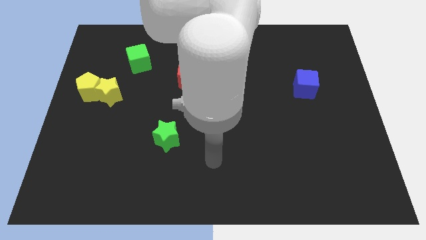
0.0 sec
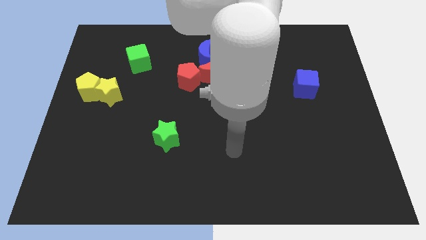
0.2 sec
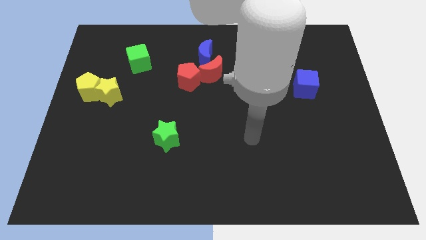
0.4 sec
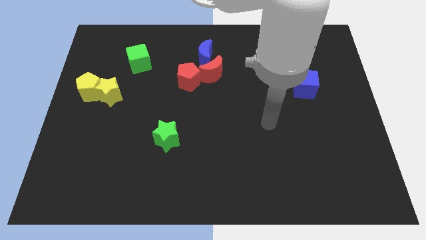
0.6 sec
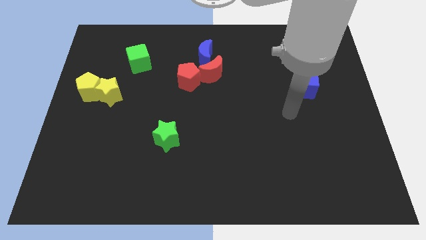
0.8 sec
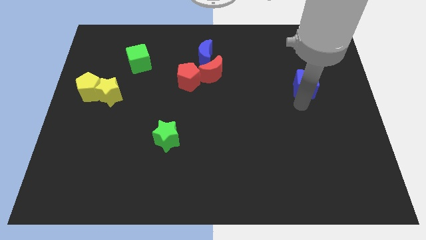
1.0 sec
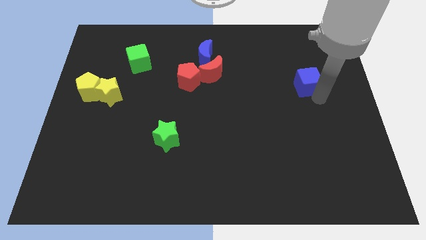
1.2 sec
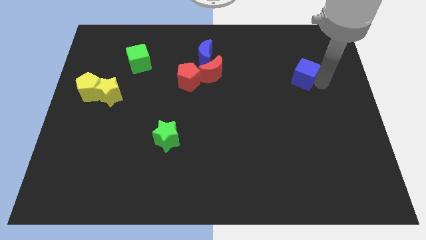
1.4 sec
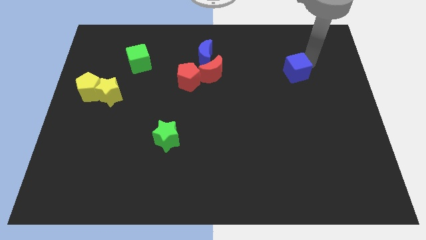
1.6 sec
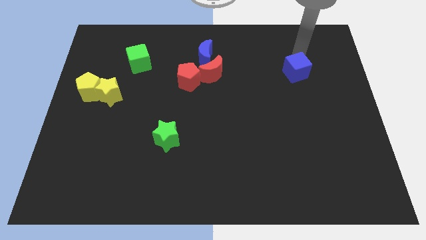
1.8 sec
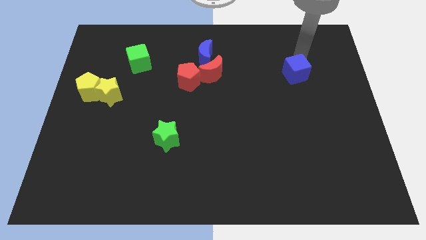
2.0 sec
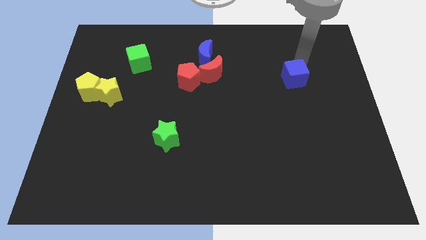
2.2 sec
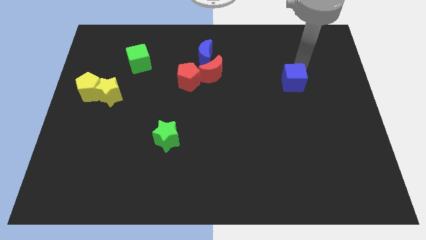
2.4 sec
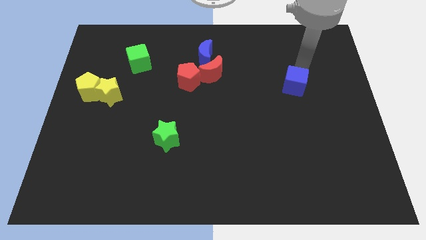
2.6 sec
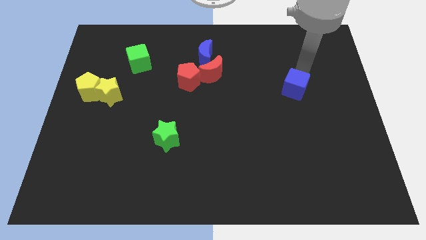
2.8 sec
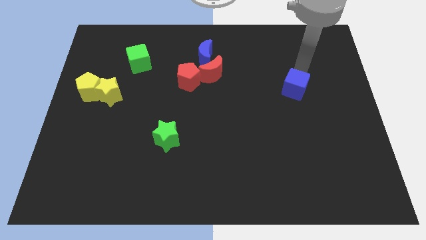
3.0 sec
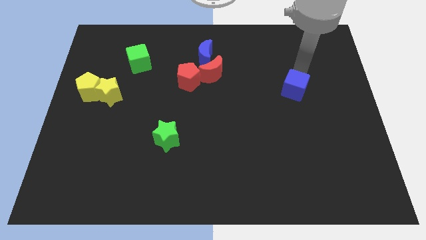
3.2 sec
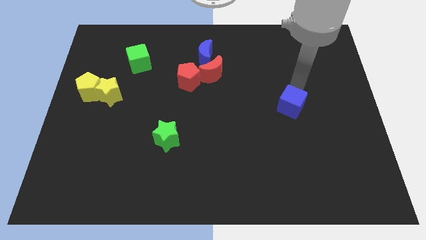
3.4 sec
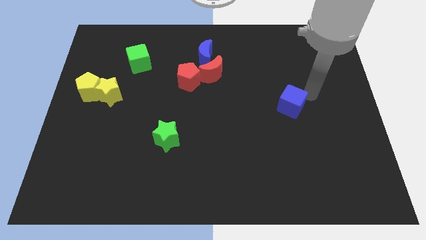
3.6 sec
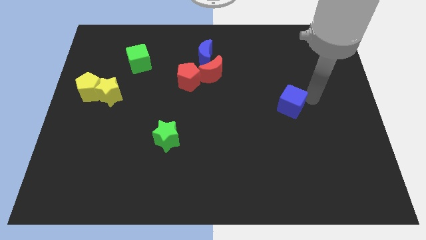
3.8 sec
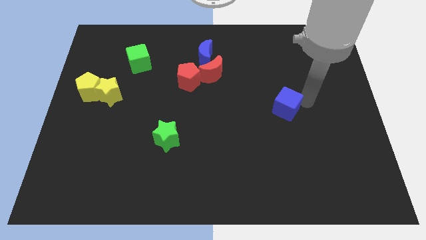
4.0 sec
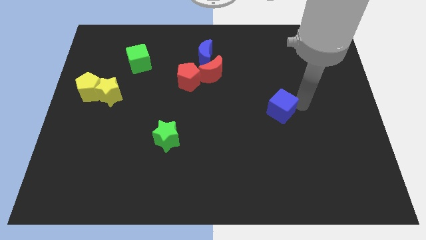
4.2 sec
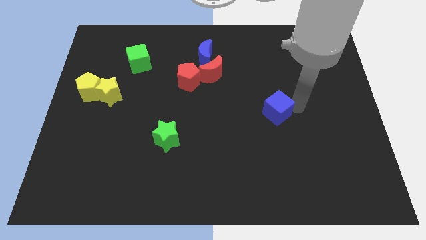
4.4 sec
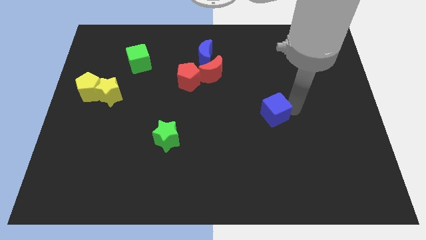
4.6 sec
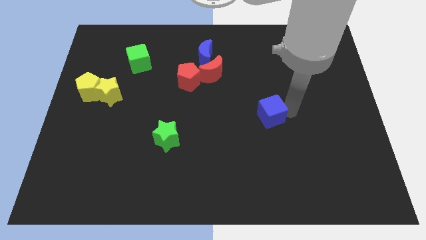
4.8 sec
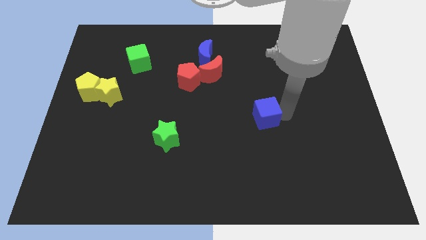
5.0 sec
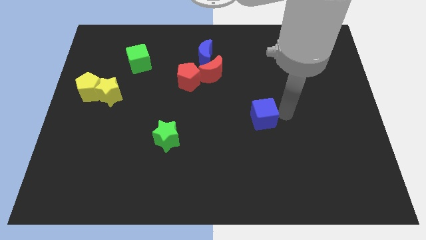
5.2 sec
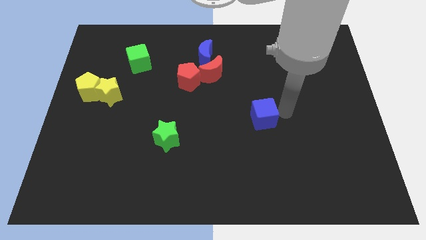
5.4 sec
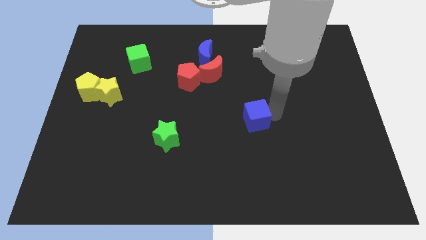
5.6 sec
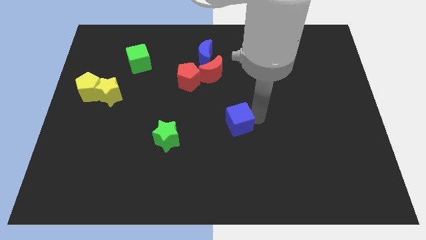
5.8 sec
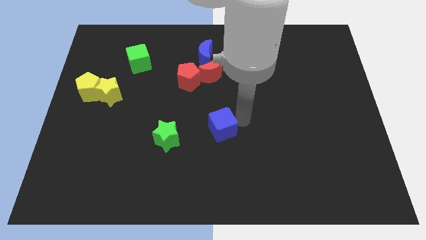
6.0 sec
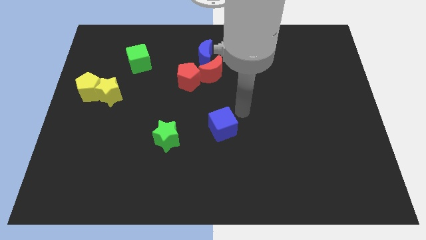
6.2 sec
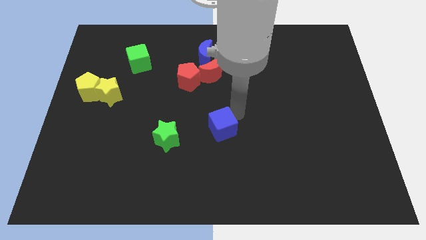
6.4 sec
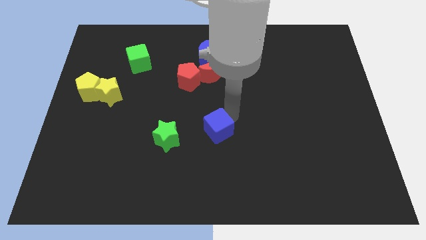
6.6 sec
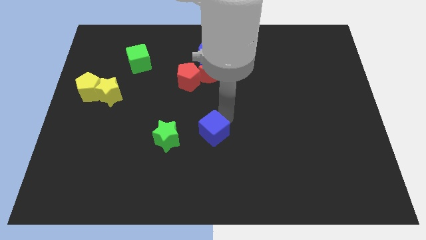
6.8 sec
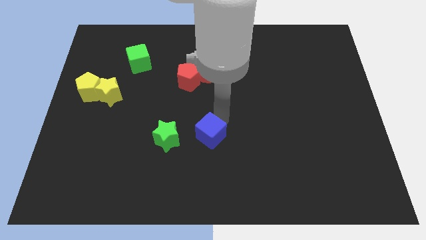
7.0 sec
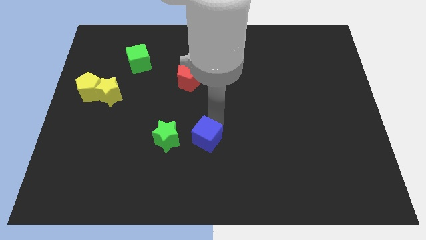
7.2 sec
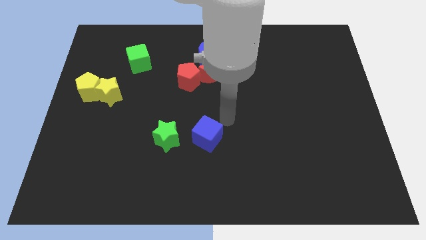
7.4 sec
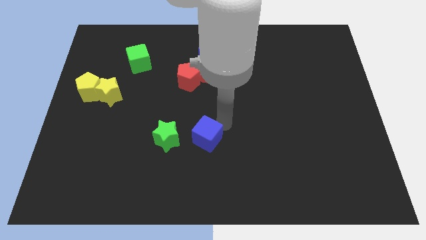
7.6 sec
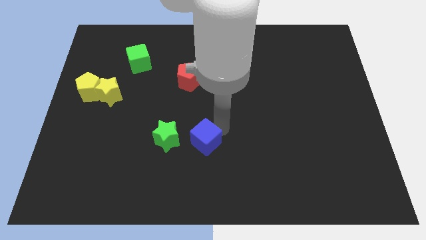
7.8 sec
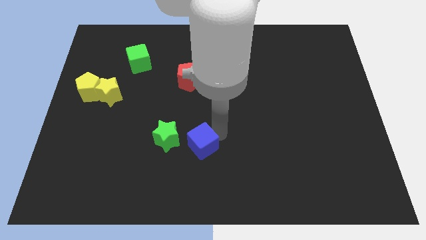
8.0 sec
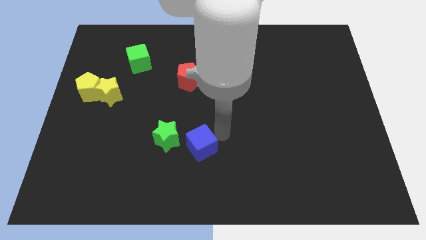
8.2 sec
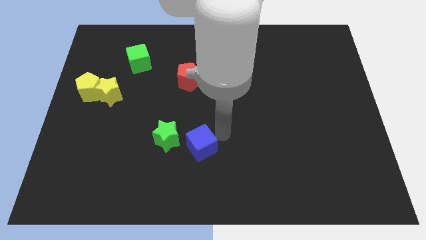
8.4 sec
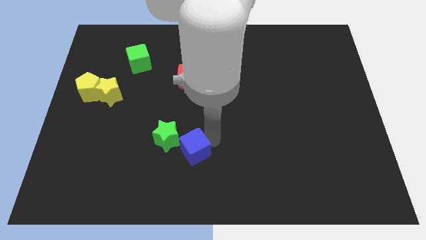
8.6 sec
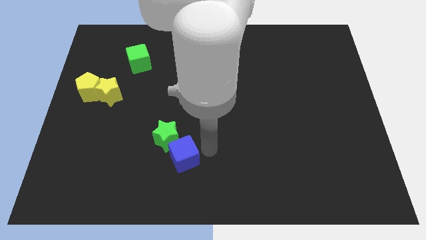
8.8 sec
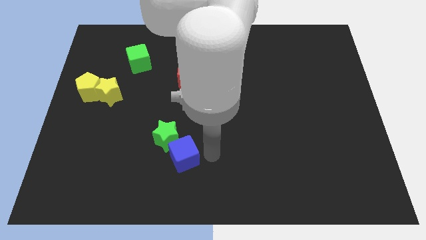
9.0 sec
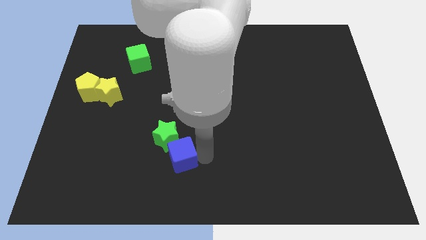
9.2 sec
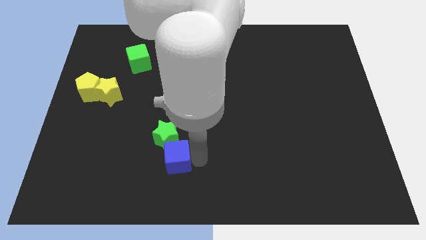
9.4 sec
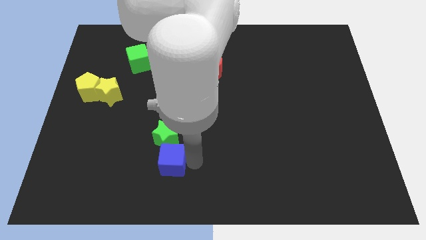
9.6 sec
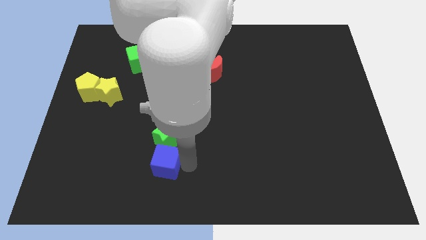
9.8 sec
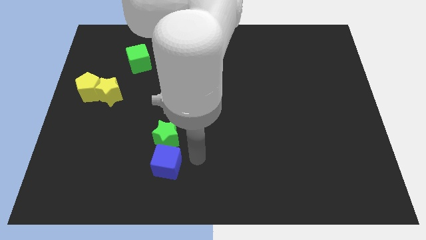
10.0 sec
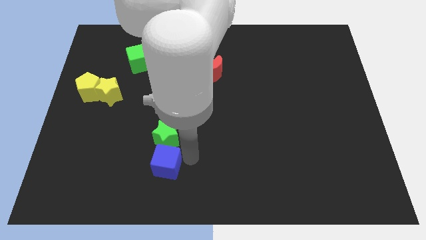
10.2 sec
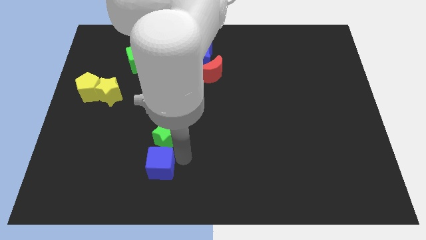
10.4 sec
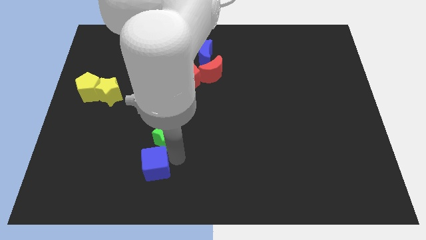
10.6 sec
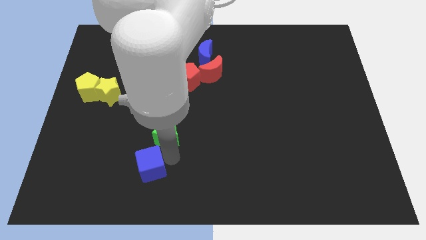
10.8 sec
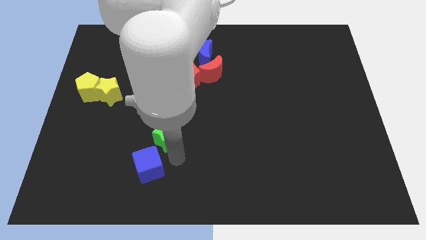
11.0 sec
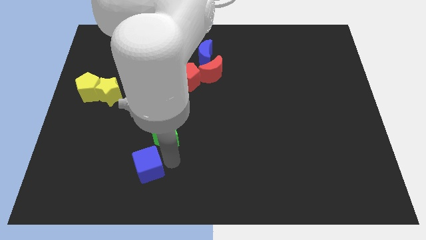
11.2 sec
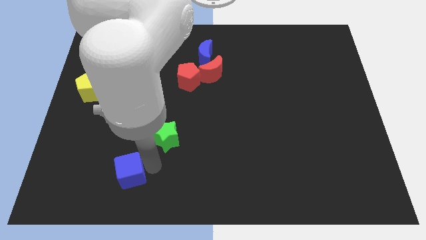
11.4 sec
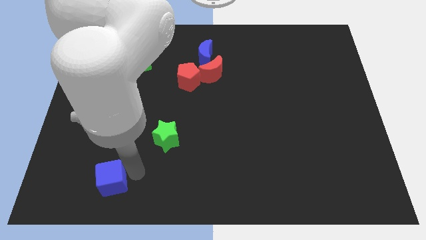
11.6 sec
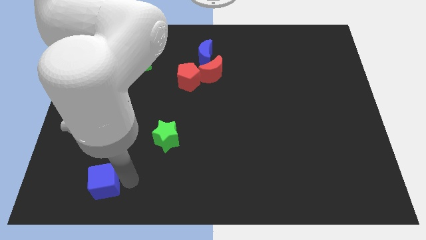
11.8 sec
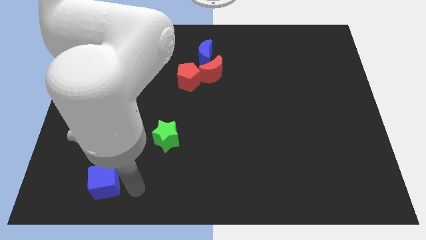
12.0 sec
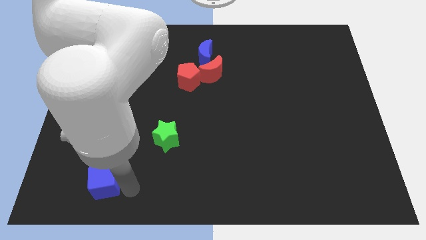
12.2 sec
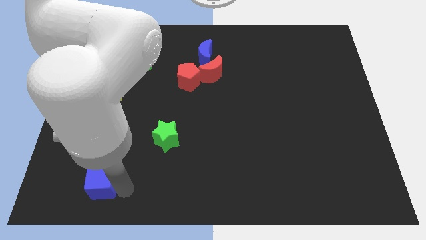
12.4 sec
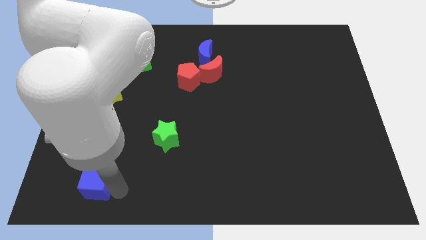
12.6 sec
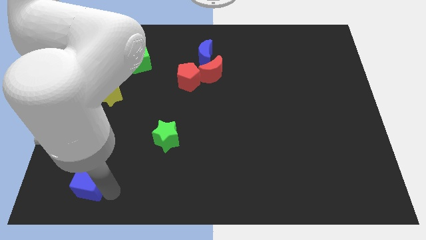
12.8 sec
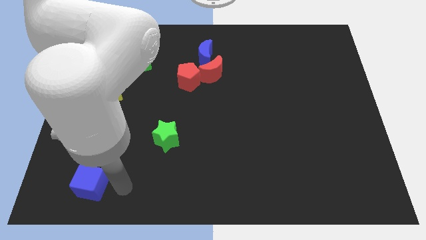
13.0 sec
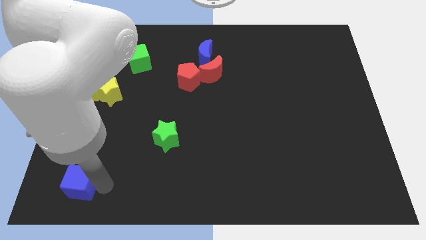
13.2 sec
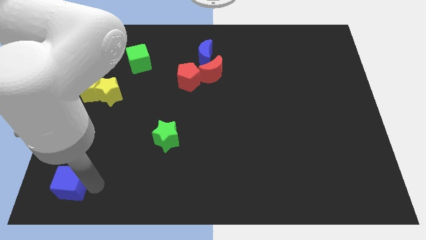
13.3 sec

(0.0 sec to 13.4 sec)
push the blue cube to the bottom left of the board
